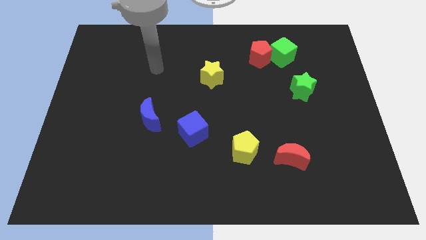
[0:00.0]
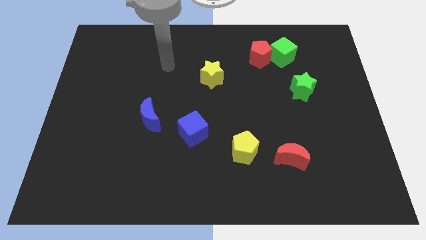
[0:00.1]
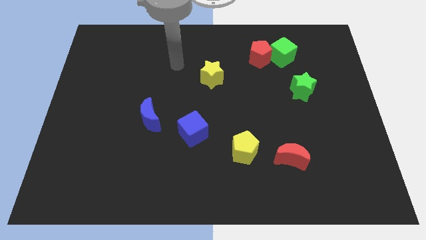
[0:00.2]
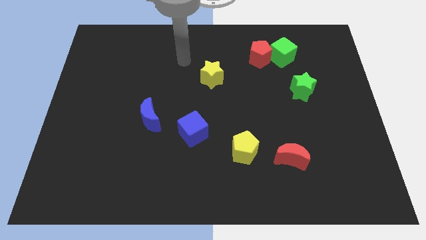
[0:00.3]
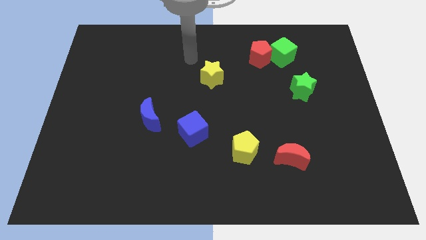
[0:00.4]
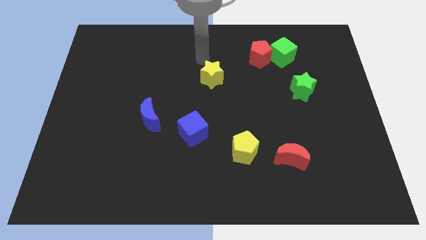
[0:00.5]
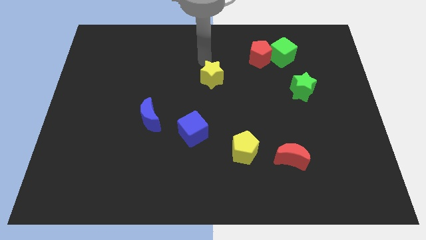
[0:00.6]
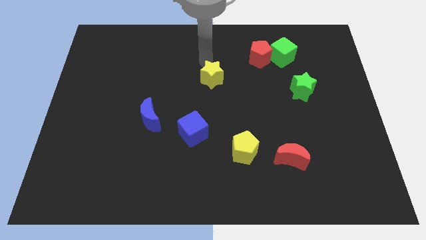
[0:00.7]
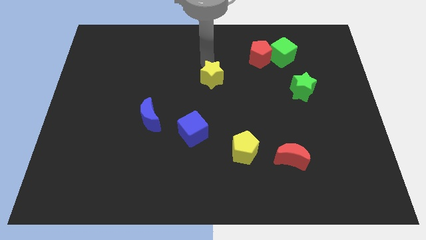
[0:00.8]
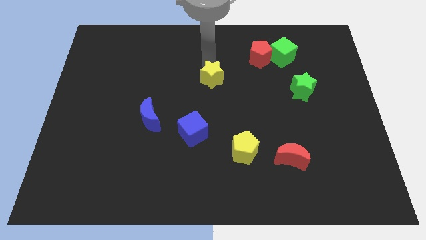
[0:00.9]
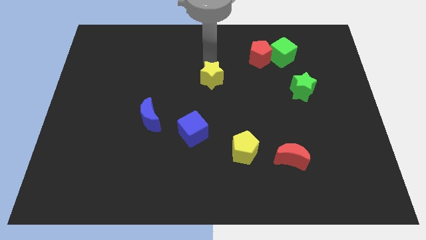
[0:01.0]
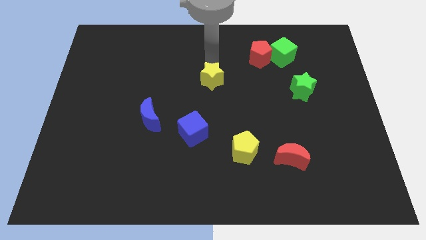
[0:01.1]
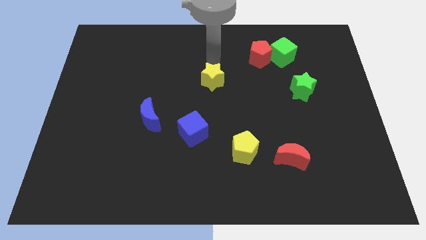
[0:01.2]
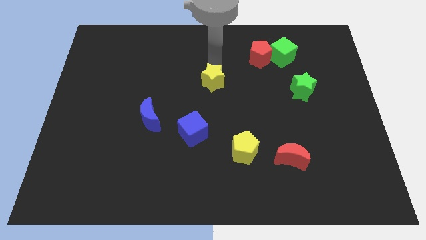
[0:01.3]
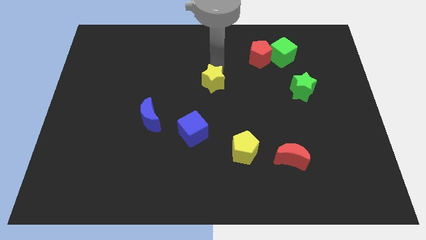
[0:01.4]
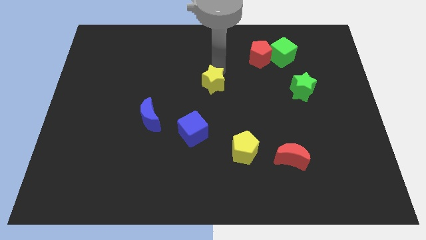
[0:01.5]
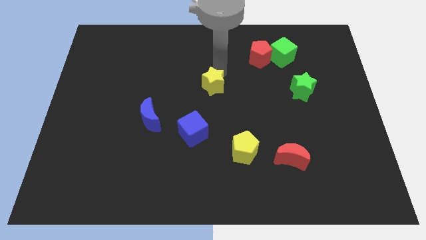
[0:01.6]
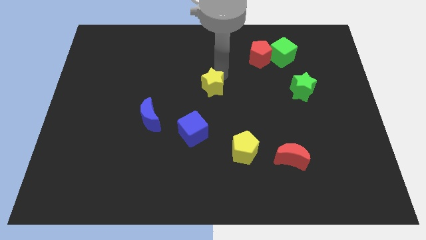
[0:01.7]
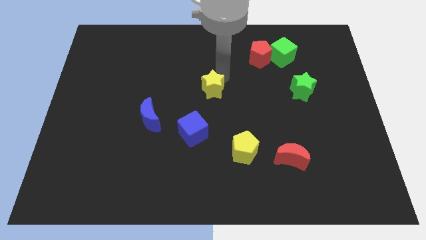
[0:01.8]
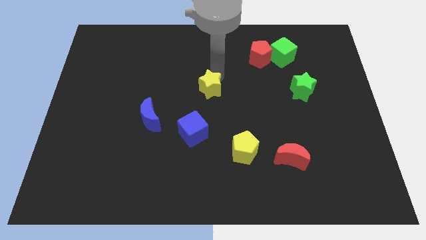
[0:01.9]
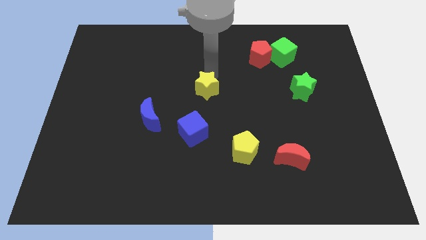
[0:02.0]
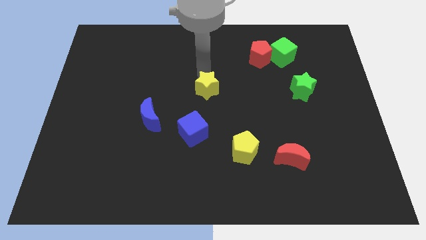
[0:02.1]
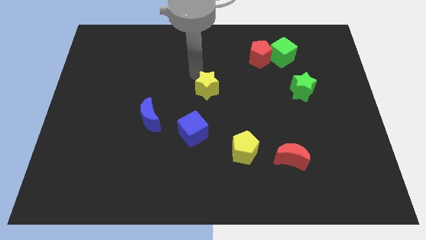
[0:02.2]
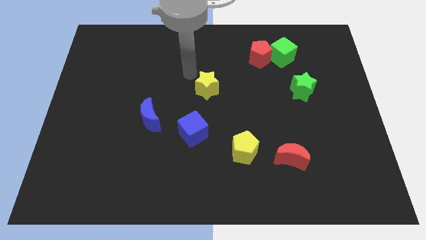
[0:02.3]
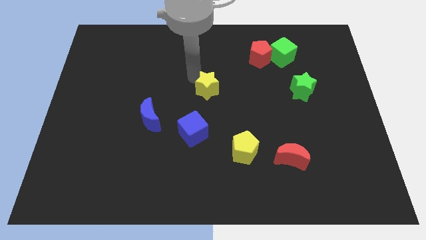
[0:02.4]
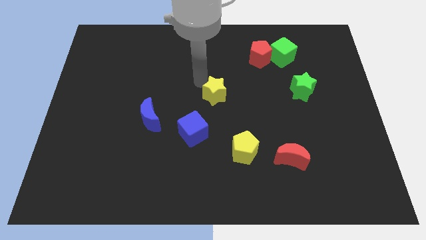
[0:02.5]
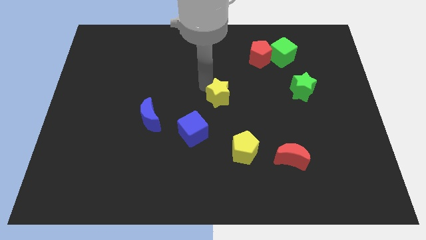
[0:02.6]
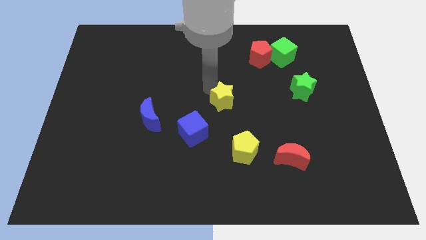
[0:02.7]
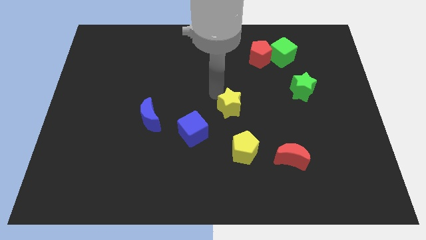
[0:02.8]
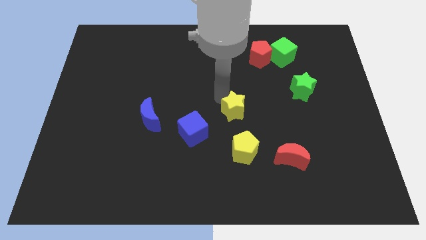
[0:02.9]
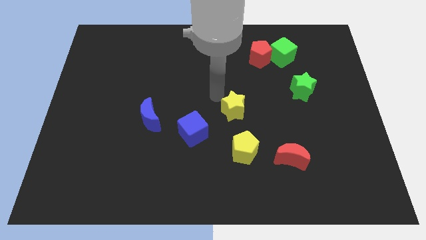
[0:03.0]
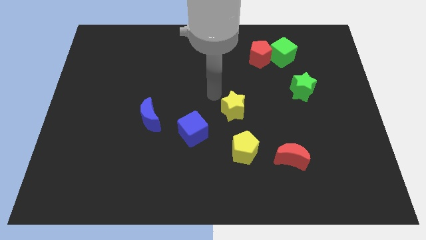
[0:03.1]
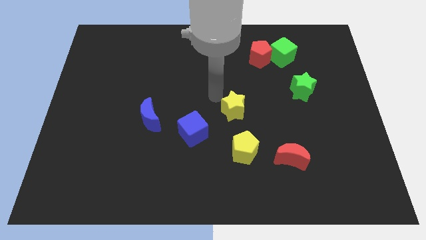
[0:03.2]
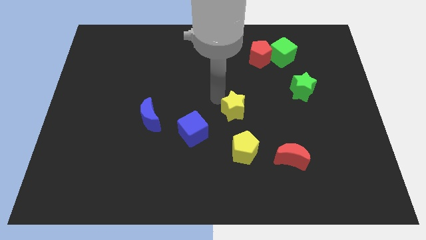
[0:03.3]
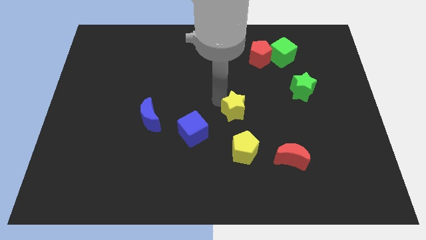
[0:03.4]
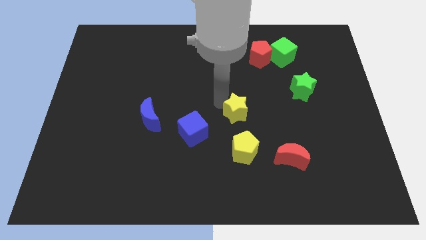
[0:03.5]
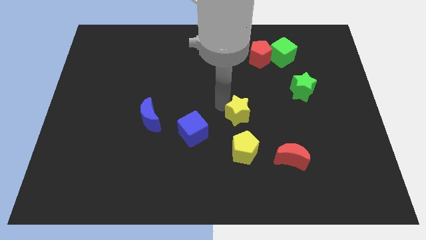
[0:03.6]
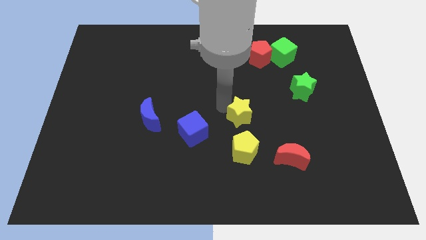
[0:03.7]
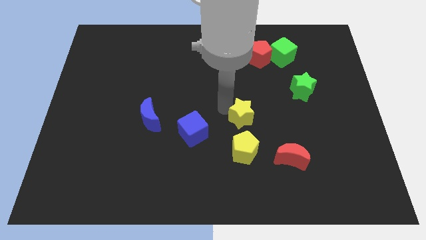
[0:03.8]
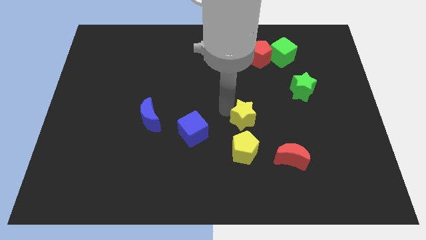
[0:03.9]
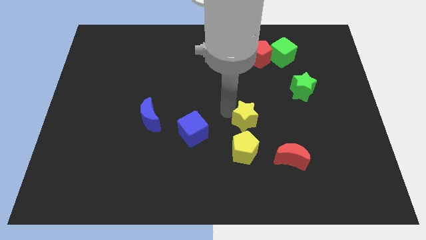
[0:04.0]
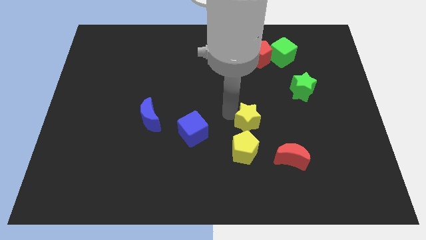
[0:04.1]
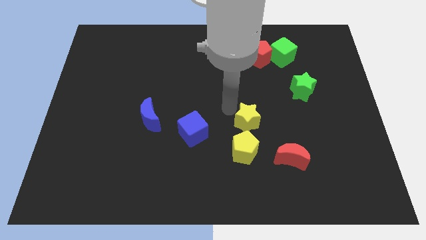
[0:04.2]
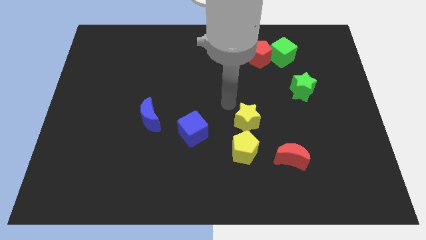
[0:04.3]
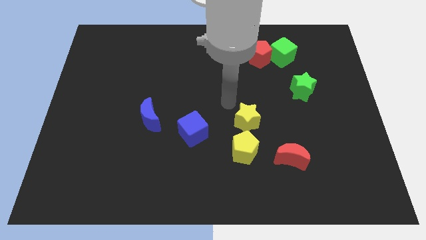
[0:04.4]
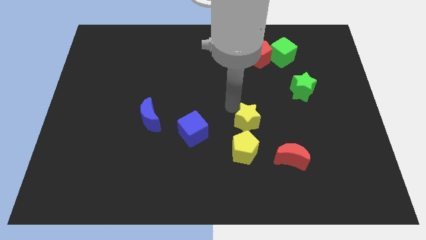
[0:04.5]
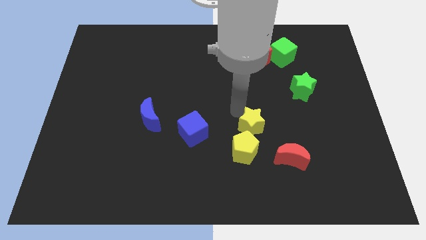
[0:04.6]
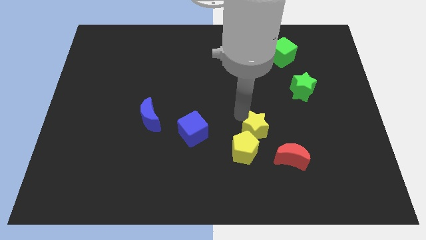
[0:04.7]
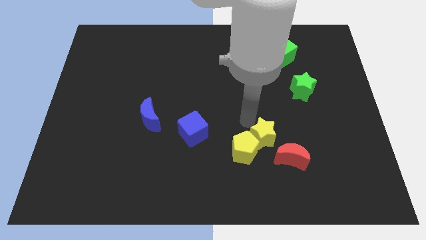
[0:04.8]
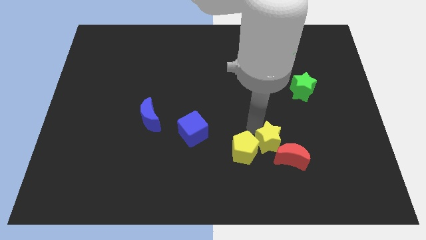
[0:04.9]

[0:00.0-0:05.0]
slide the yellow star next to the red moon

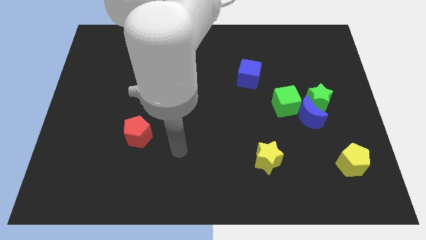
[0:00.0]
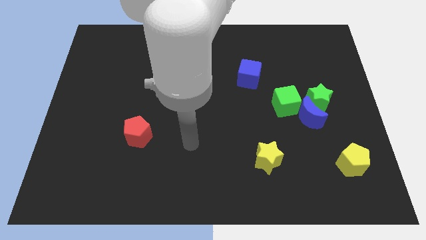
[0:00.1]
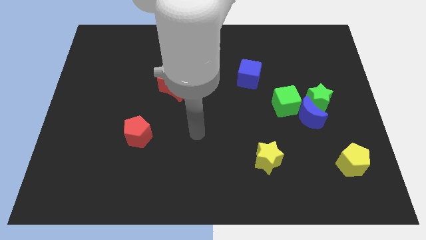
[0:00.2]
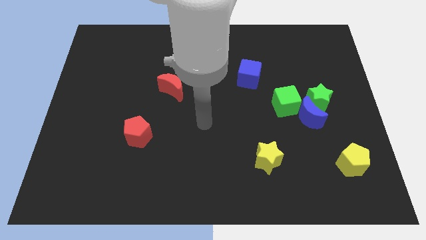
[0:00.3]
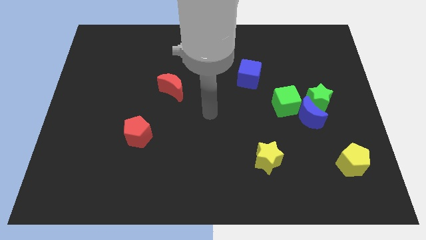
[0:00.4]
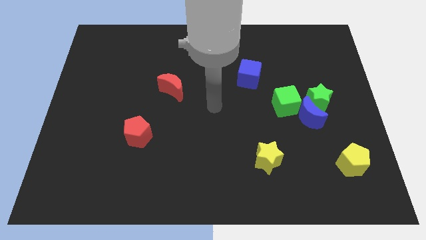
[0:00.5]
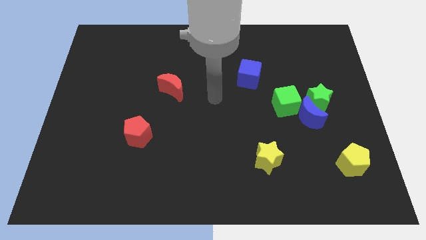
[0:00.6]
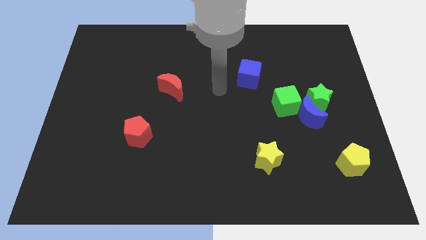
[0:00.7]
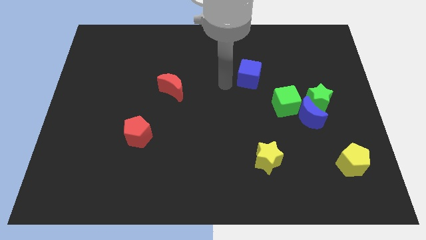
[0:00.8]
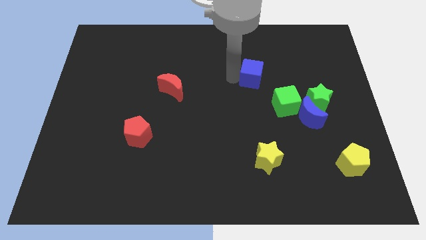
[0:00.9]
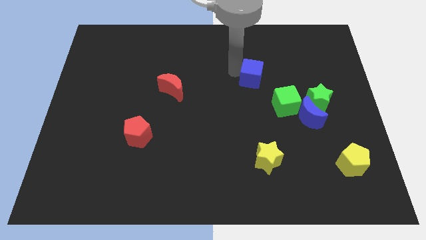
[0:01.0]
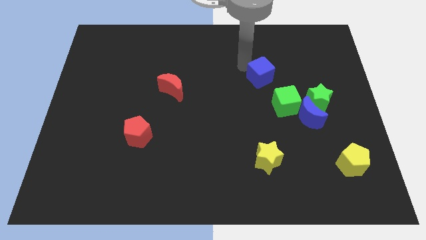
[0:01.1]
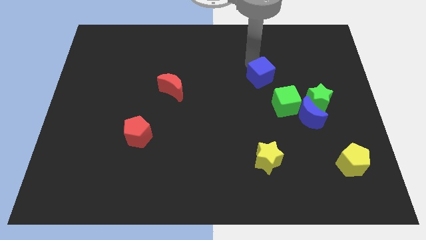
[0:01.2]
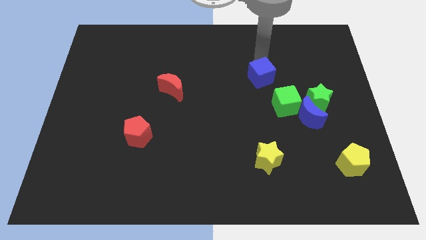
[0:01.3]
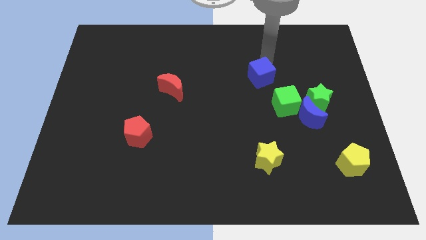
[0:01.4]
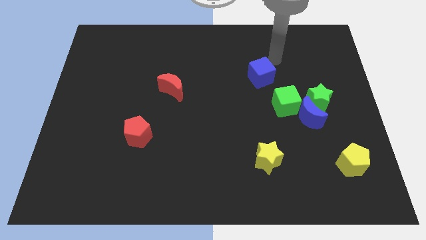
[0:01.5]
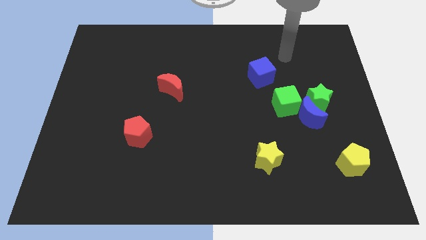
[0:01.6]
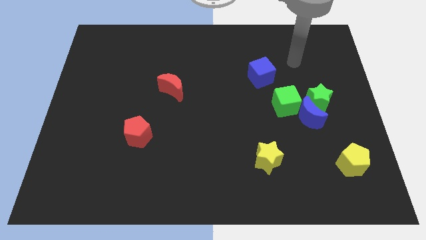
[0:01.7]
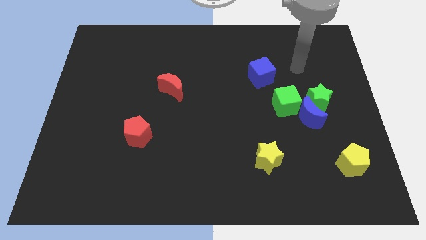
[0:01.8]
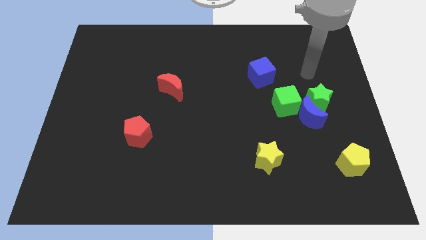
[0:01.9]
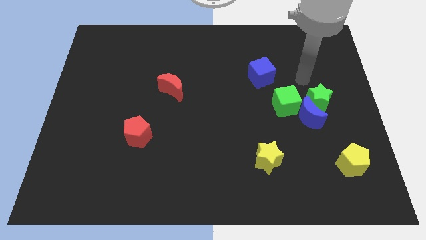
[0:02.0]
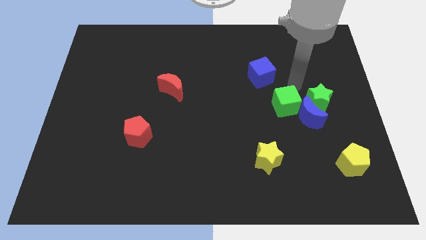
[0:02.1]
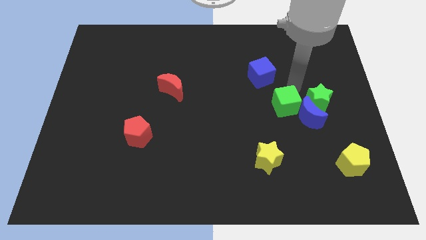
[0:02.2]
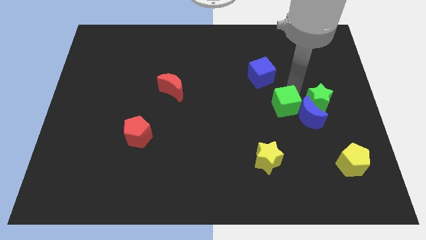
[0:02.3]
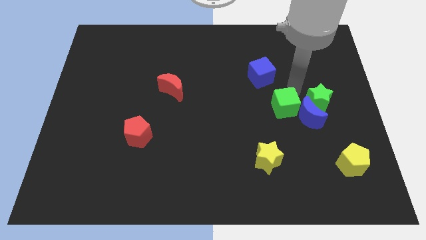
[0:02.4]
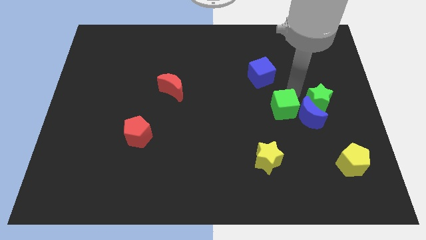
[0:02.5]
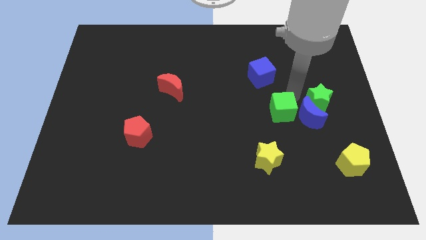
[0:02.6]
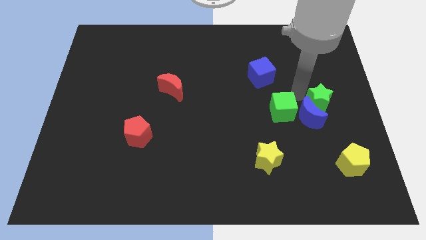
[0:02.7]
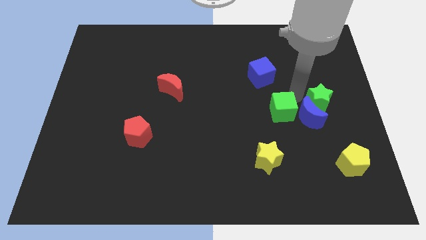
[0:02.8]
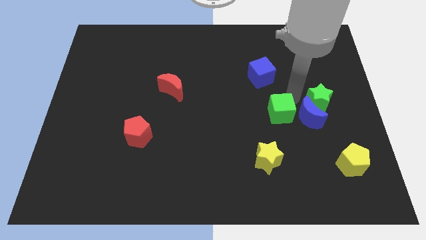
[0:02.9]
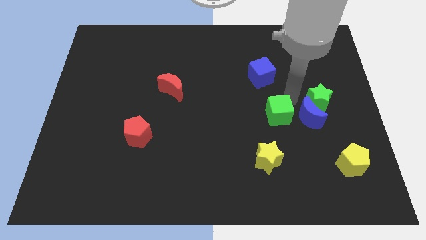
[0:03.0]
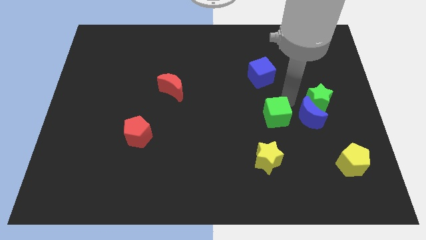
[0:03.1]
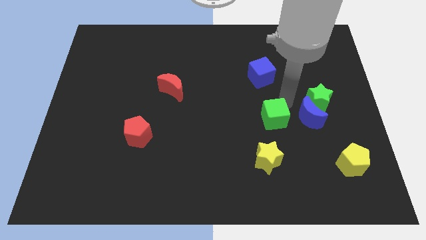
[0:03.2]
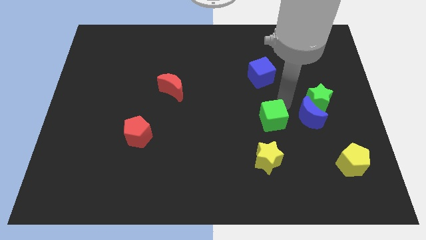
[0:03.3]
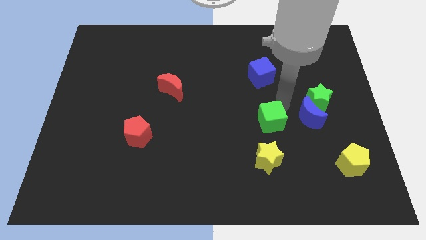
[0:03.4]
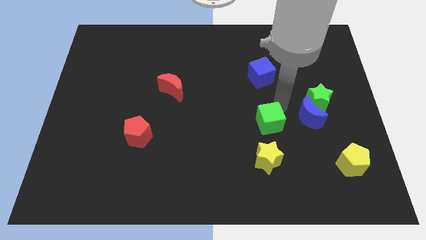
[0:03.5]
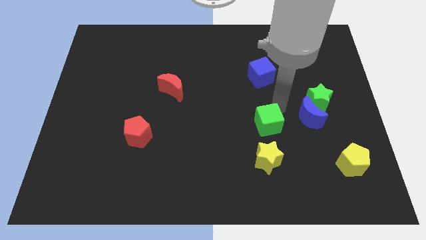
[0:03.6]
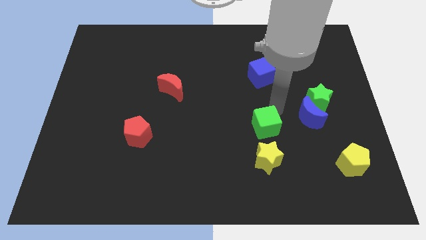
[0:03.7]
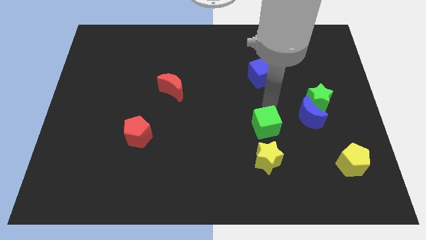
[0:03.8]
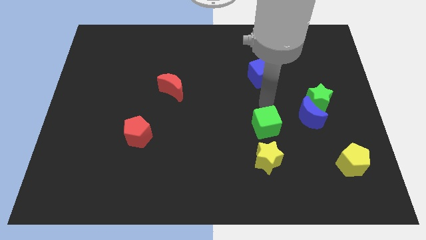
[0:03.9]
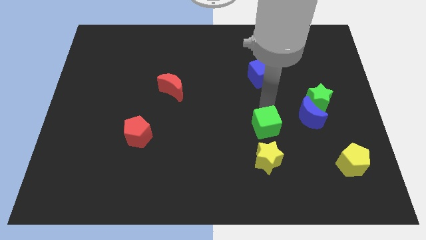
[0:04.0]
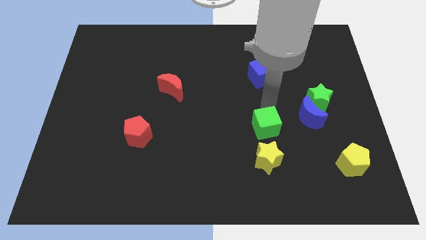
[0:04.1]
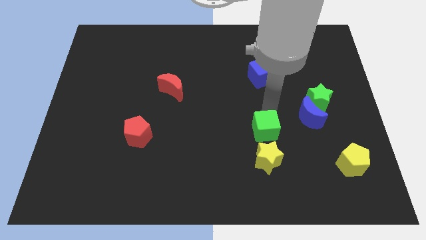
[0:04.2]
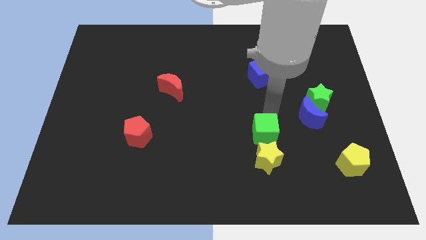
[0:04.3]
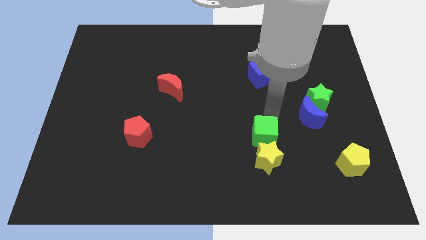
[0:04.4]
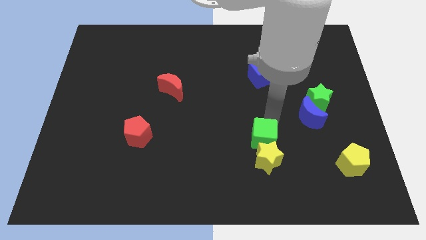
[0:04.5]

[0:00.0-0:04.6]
slide the green cube next to the yellow star
